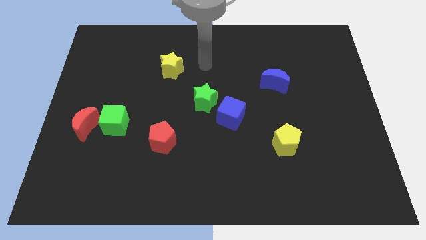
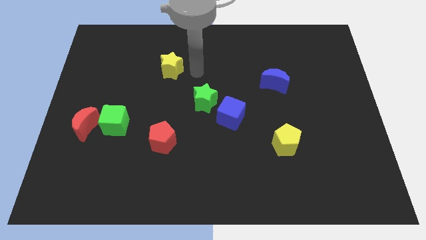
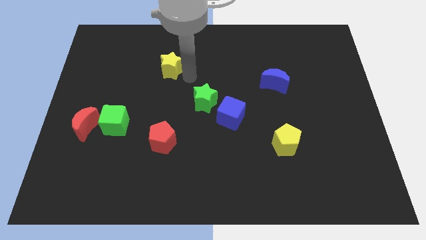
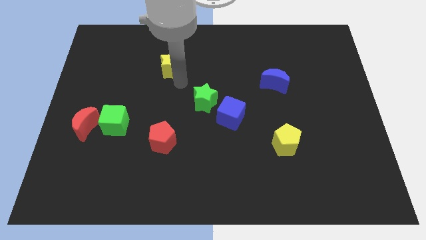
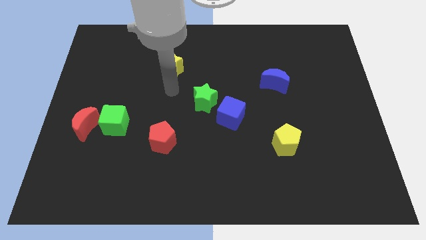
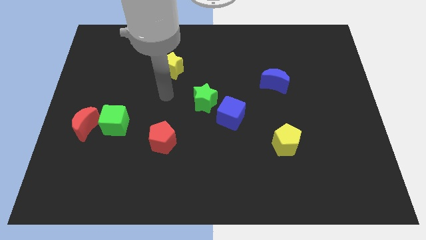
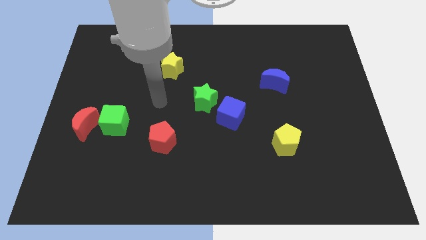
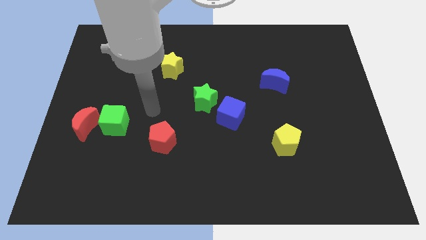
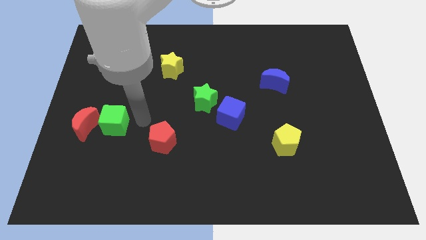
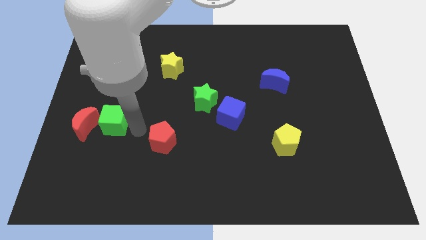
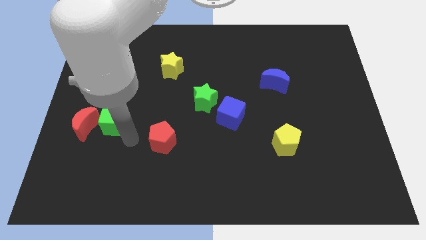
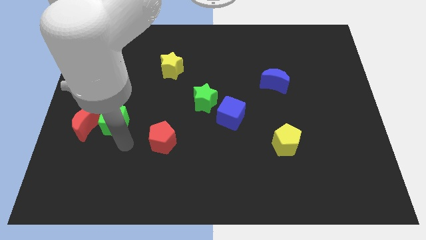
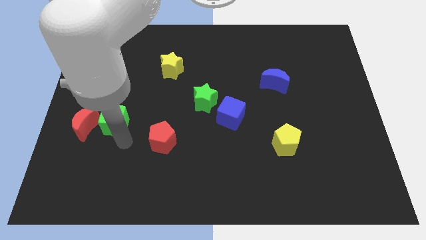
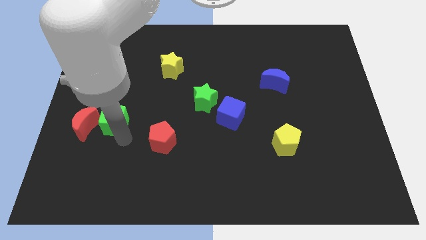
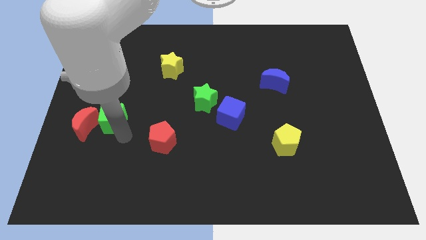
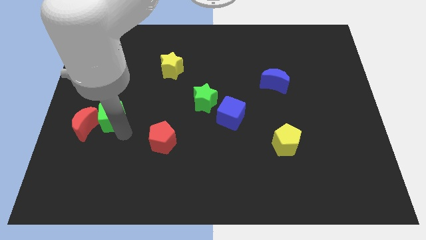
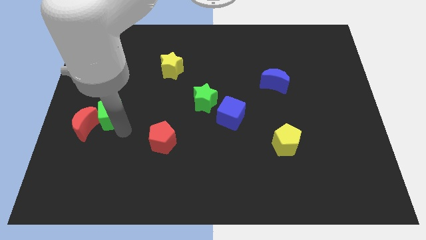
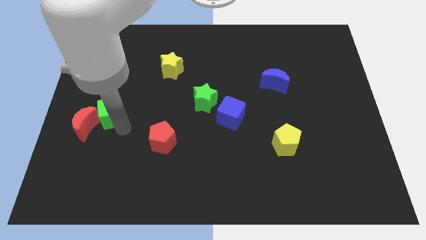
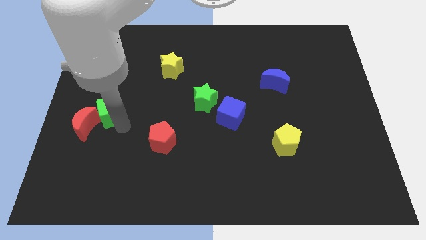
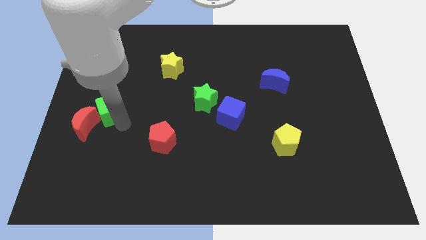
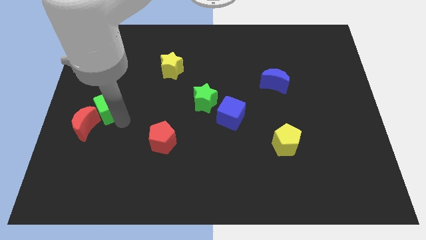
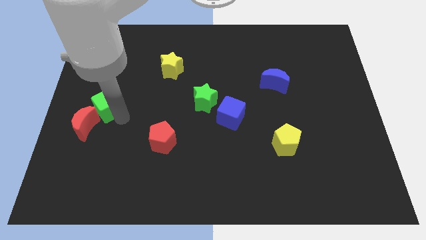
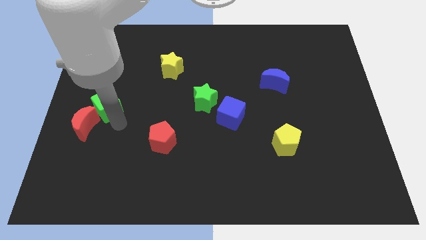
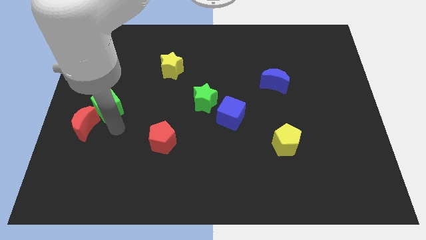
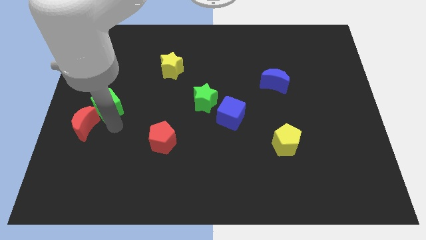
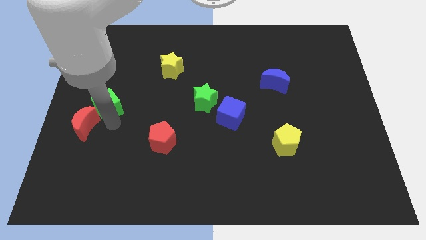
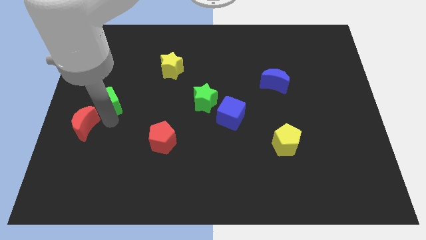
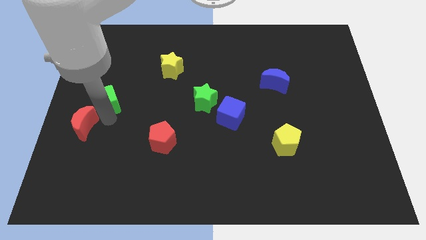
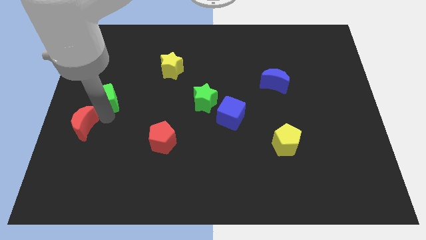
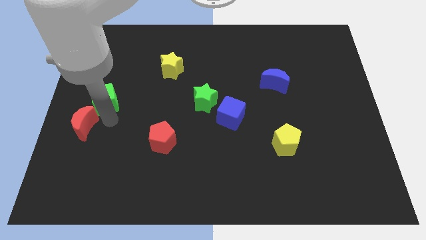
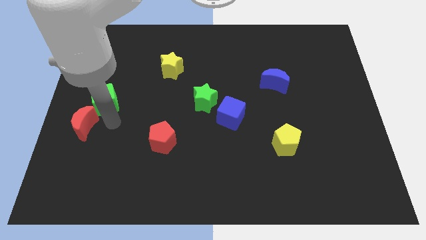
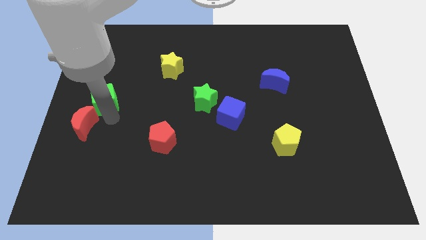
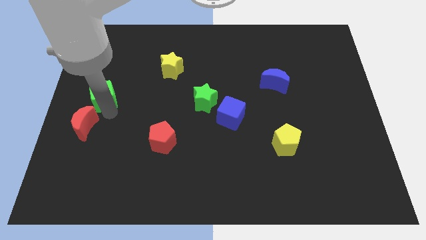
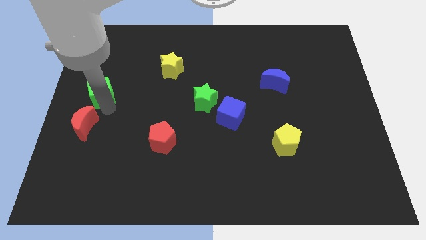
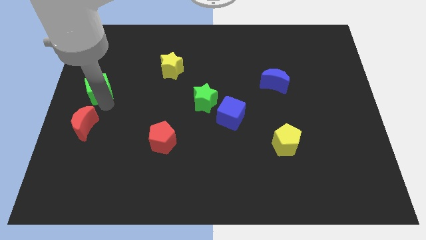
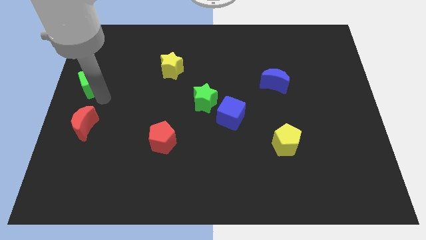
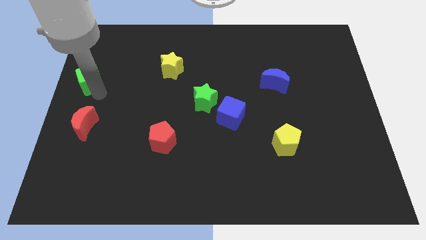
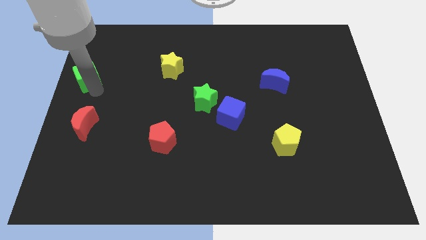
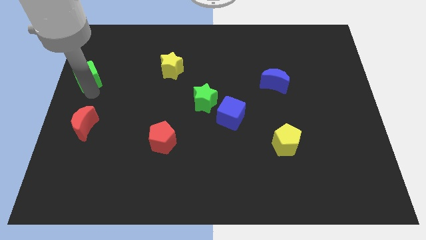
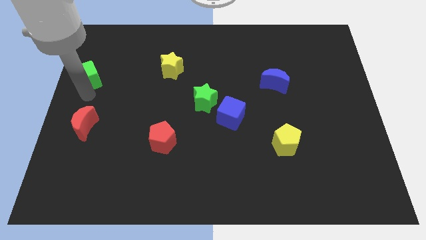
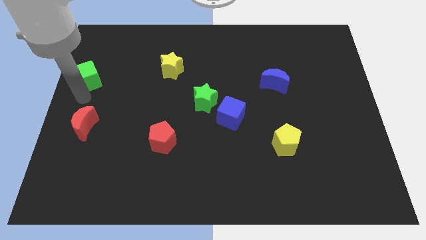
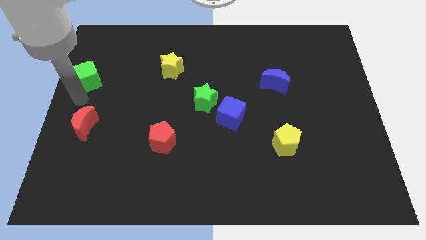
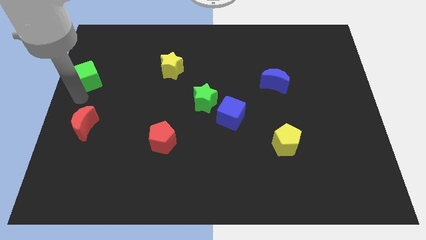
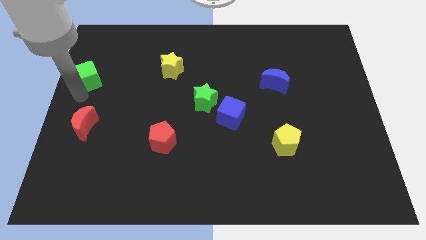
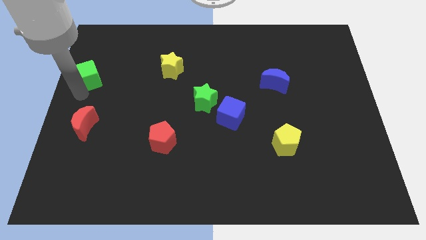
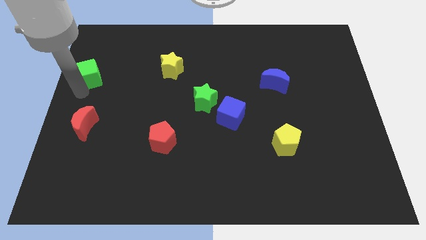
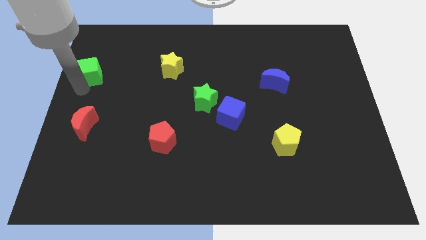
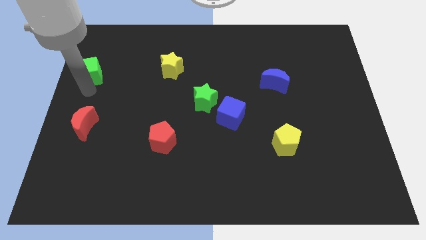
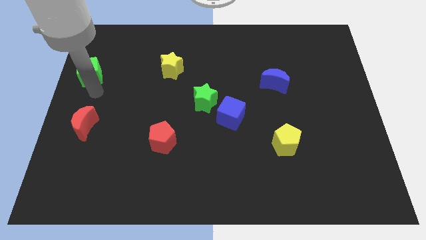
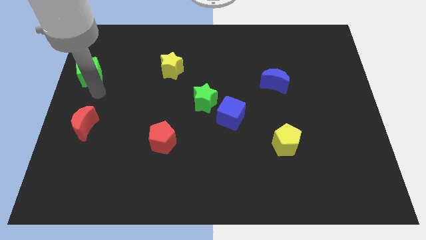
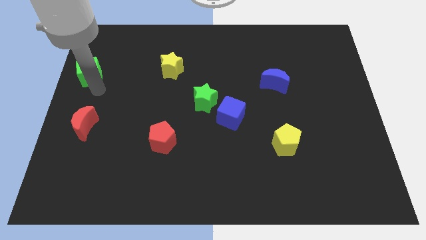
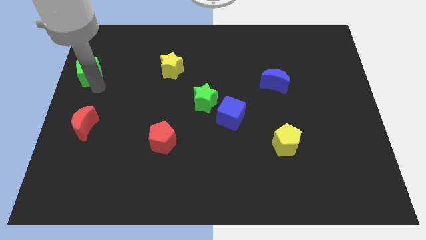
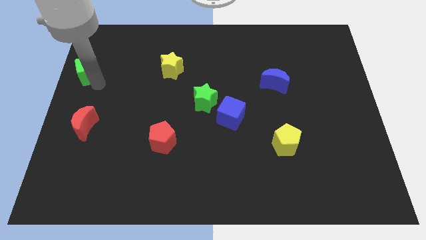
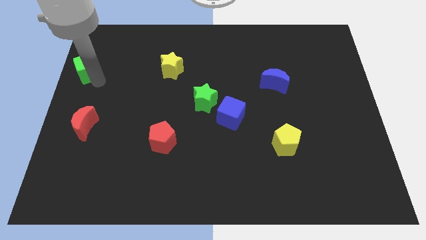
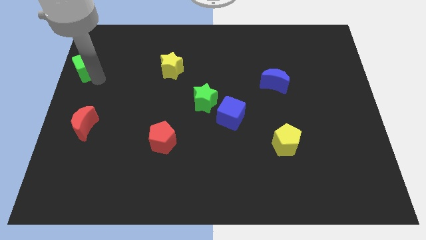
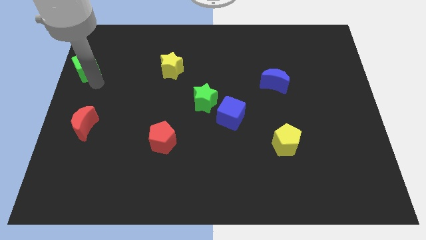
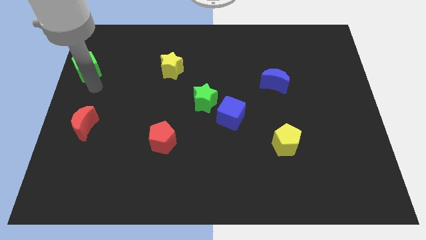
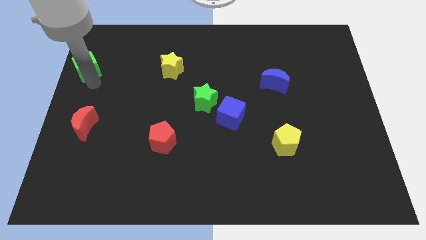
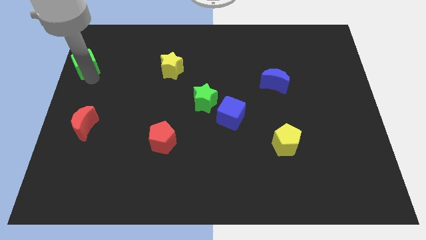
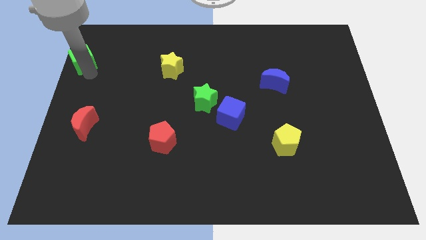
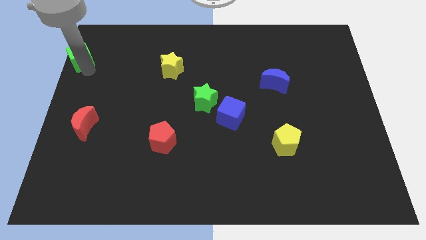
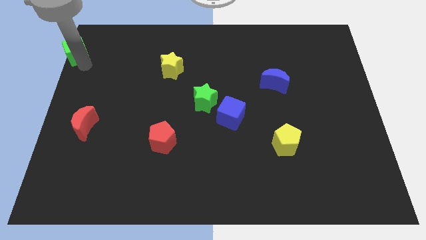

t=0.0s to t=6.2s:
push the green cube to the top left of the board

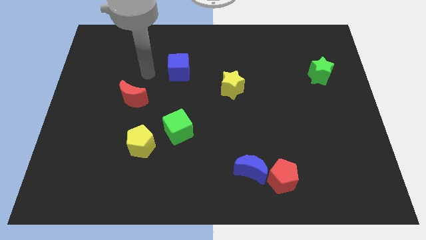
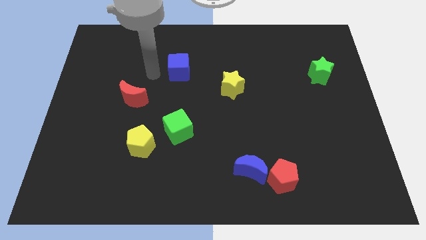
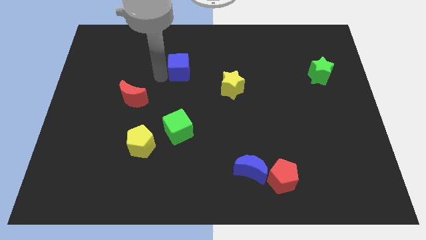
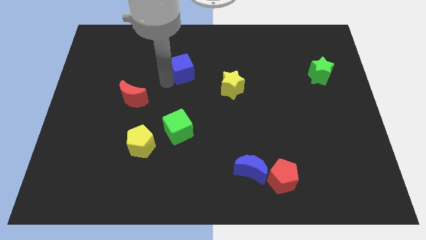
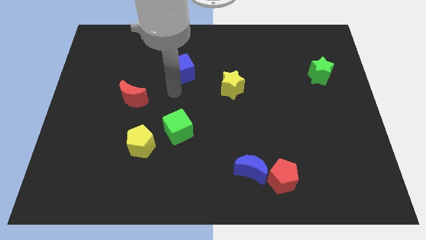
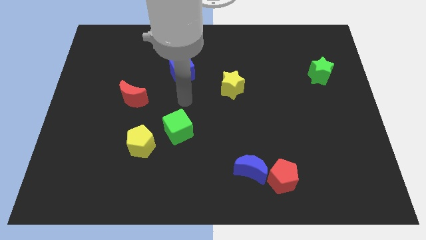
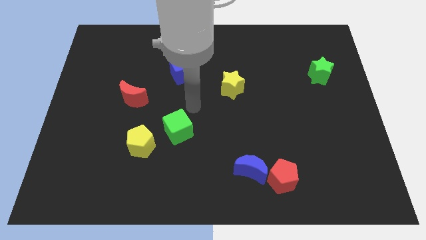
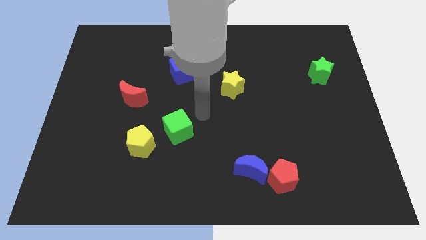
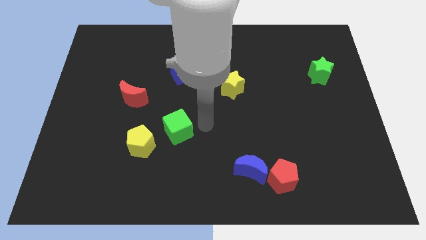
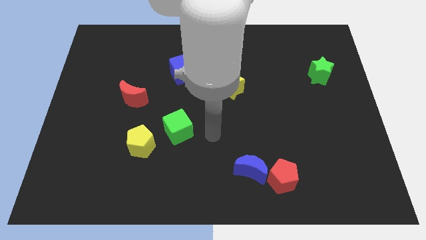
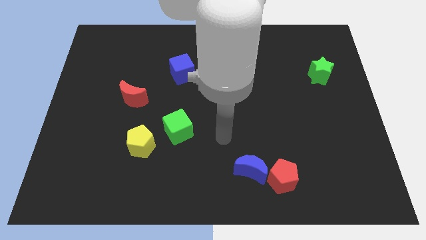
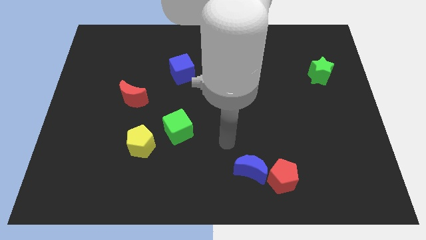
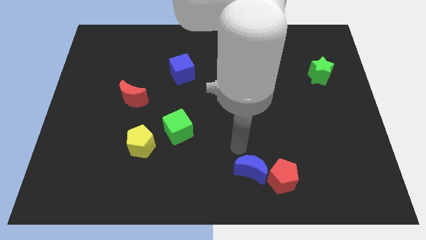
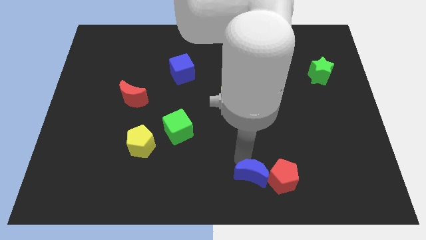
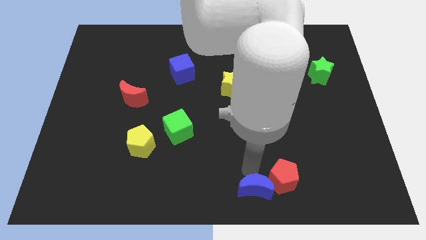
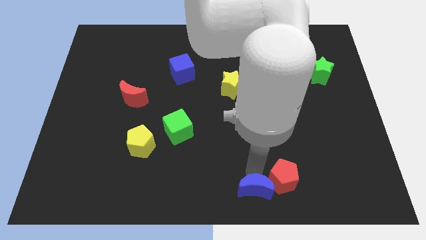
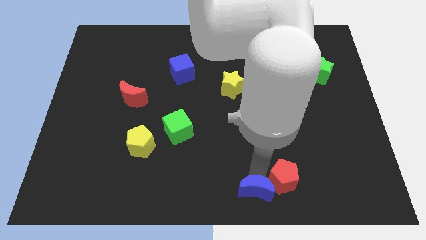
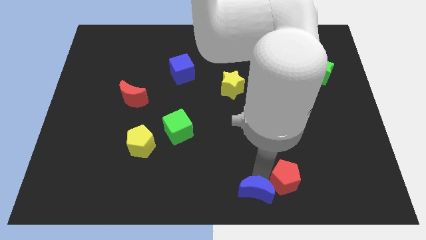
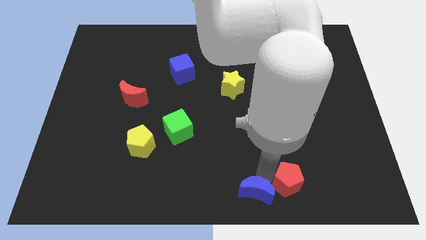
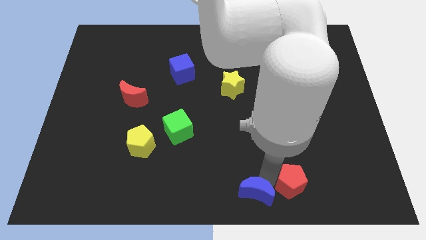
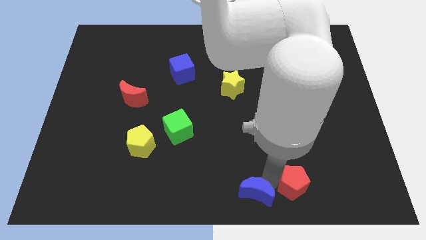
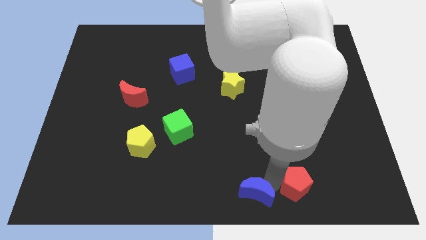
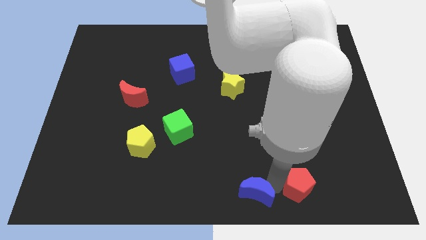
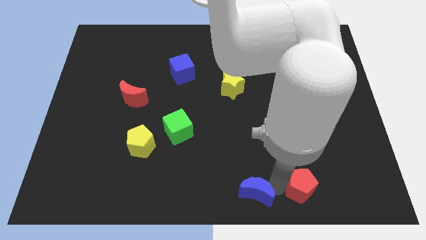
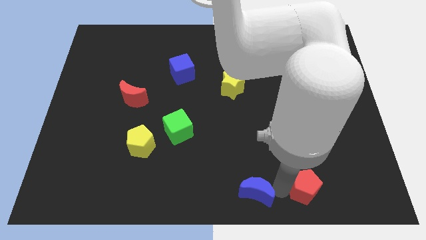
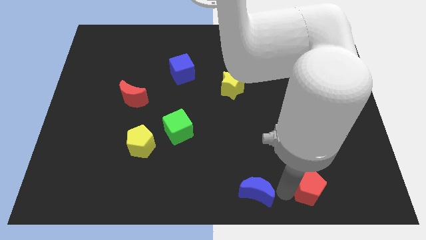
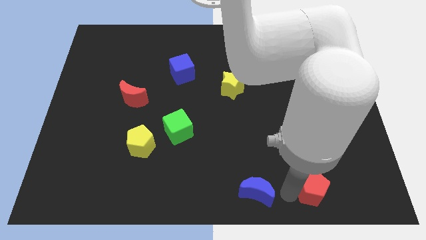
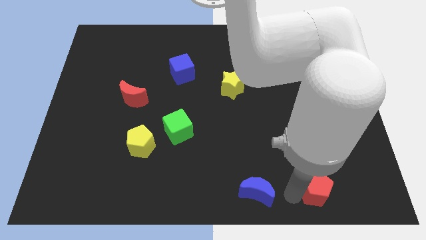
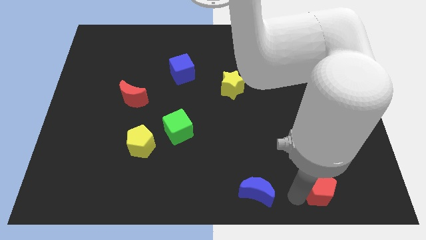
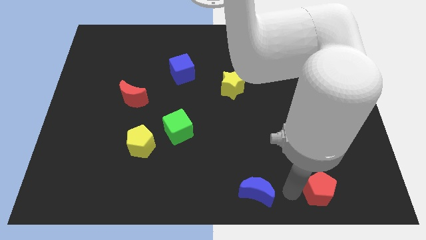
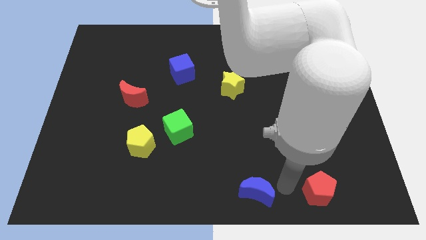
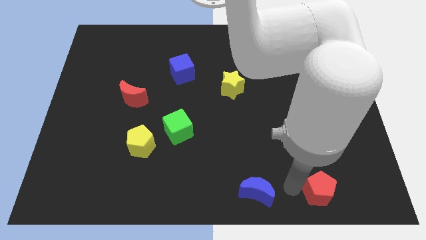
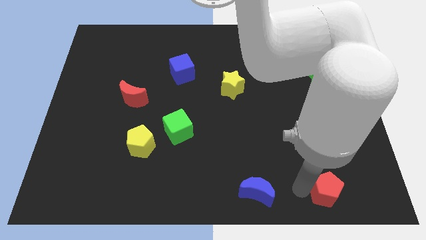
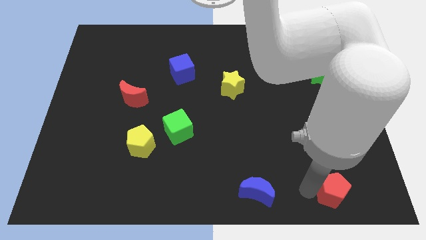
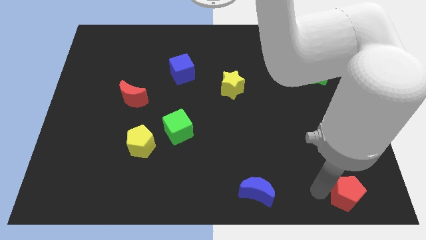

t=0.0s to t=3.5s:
slide the red pentagon to the bottom right corner
